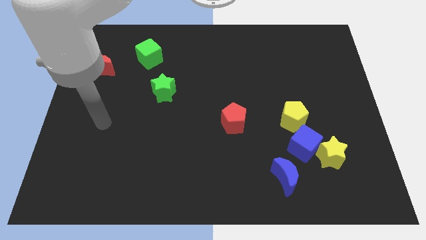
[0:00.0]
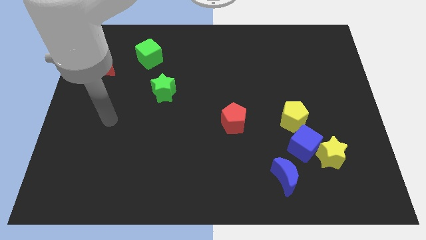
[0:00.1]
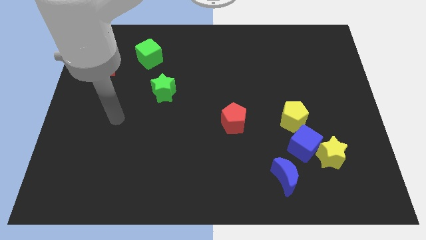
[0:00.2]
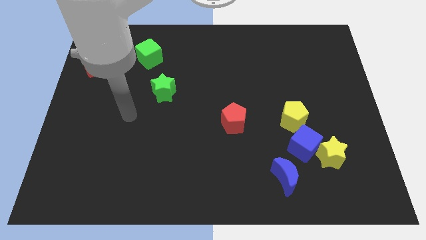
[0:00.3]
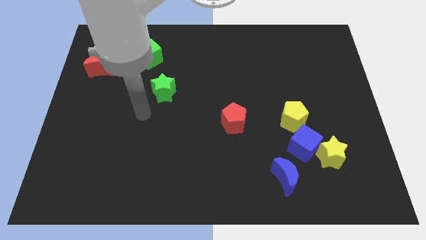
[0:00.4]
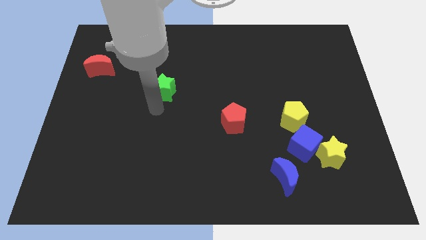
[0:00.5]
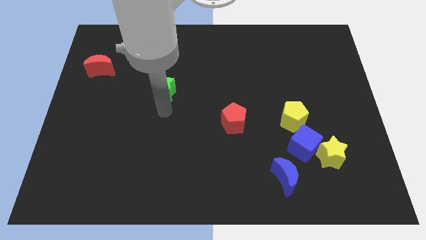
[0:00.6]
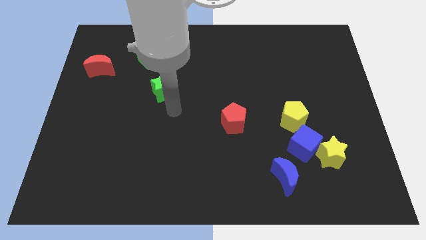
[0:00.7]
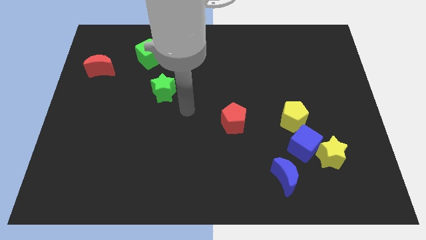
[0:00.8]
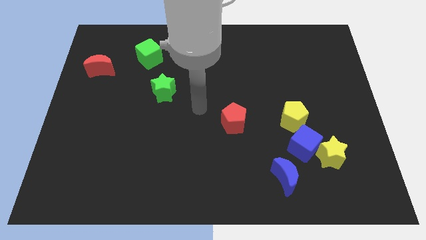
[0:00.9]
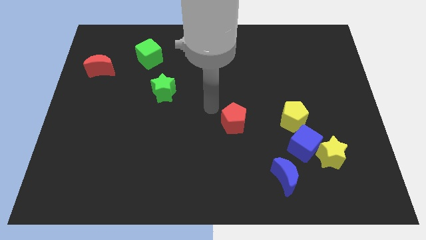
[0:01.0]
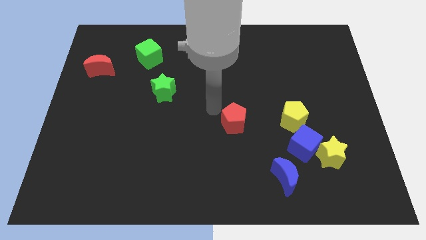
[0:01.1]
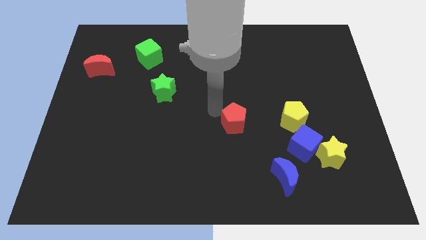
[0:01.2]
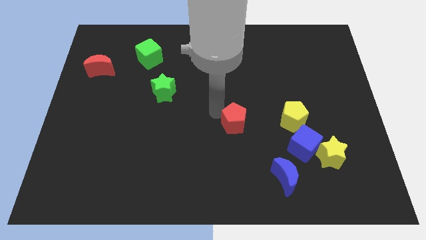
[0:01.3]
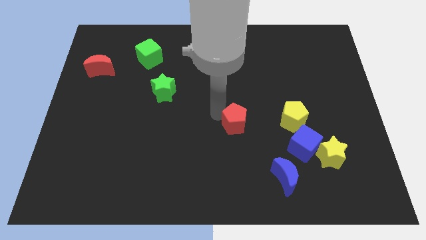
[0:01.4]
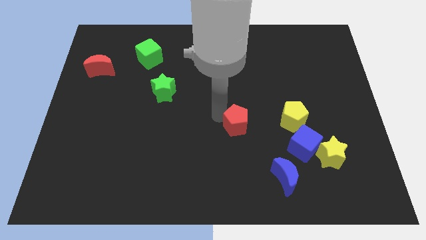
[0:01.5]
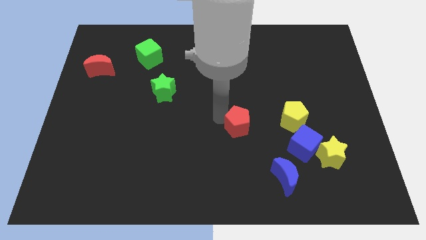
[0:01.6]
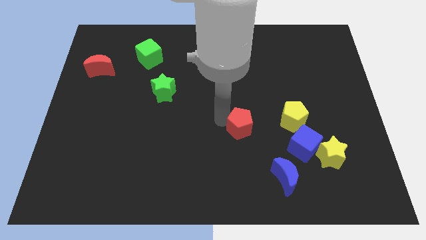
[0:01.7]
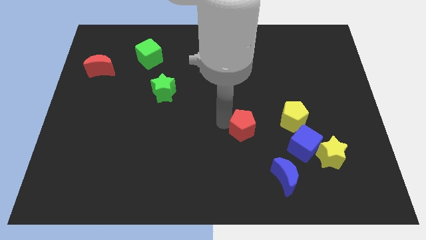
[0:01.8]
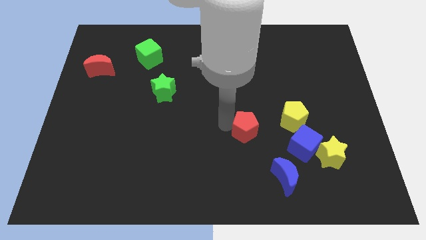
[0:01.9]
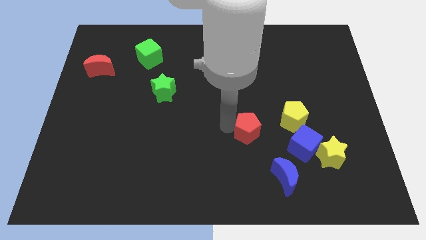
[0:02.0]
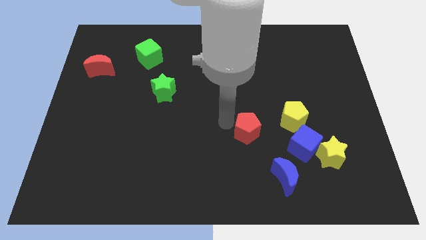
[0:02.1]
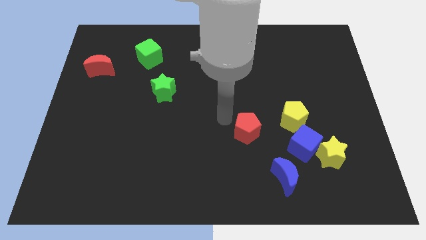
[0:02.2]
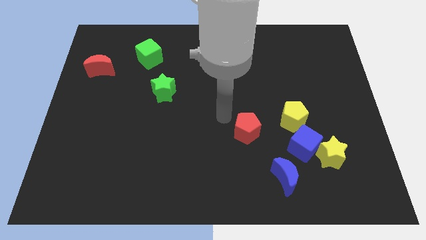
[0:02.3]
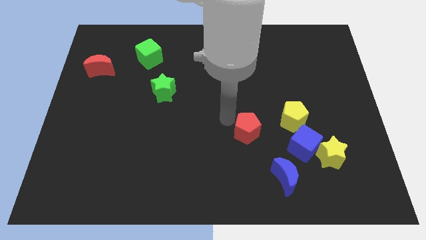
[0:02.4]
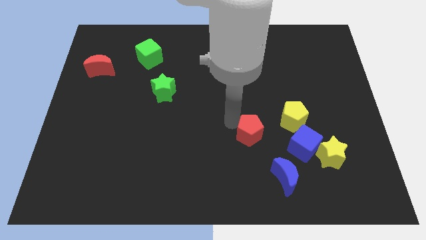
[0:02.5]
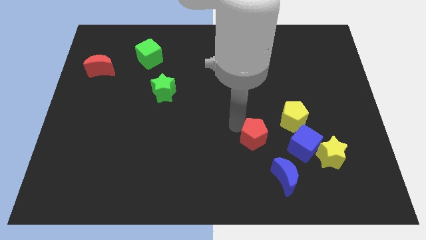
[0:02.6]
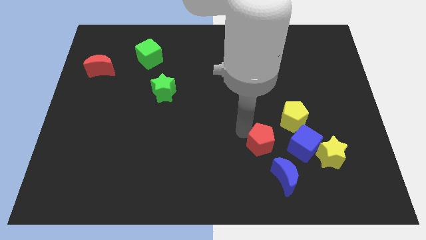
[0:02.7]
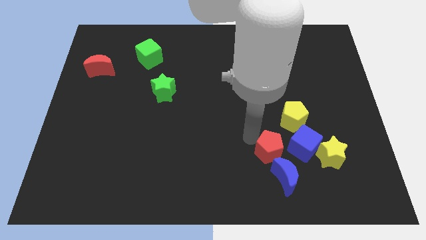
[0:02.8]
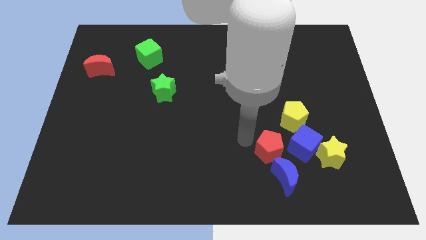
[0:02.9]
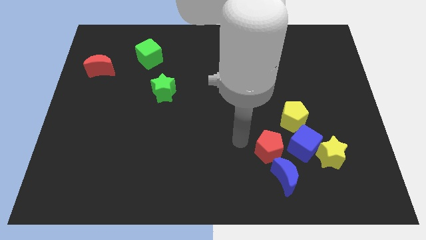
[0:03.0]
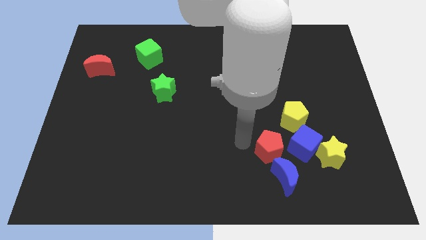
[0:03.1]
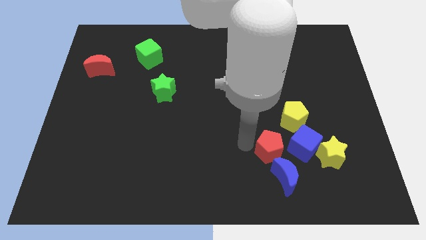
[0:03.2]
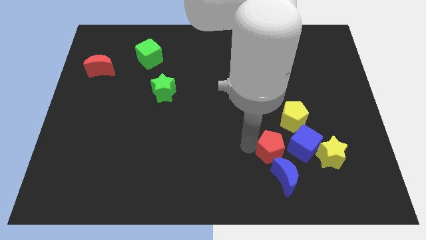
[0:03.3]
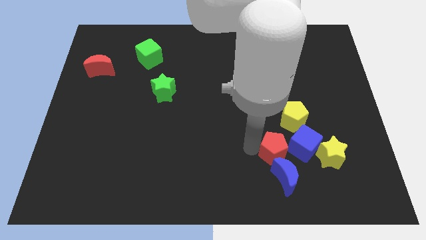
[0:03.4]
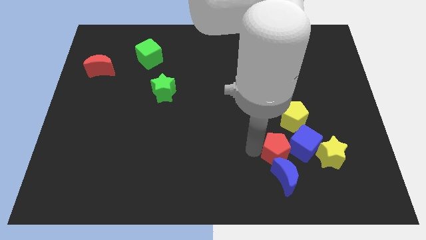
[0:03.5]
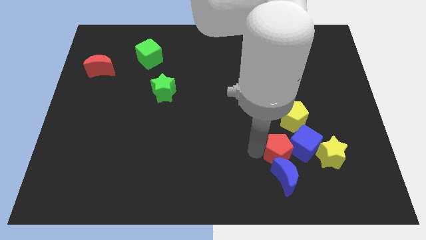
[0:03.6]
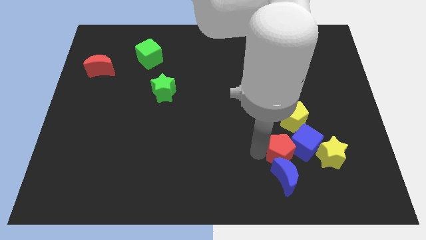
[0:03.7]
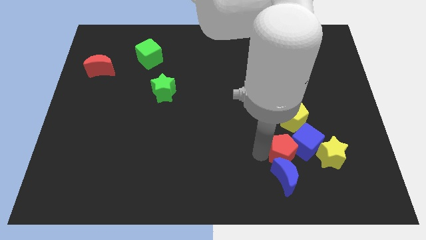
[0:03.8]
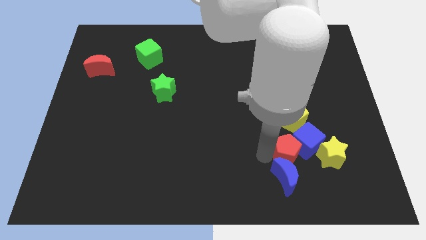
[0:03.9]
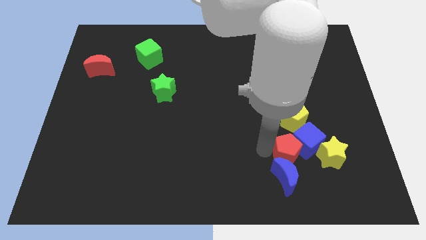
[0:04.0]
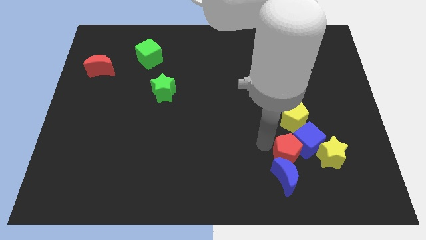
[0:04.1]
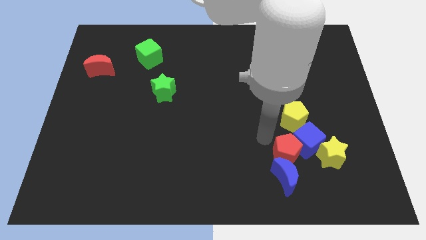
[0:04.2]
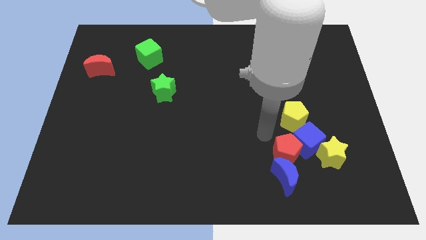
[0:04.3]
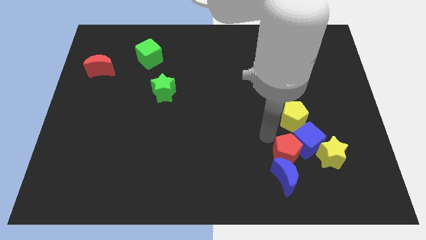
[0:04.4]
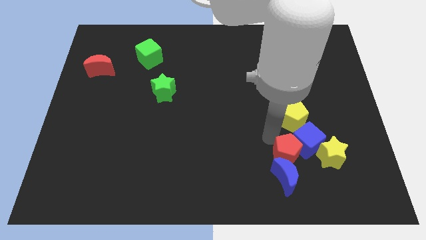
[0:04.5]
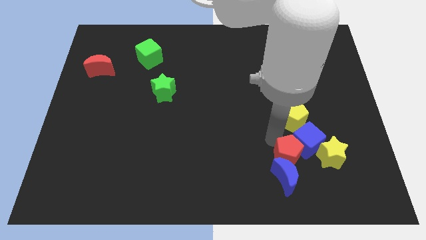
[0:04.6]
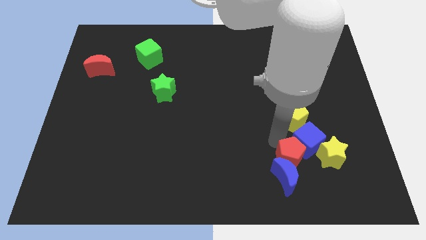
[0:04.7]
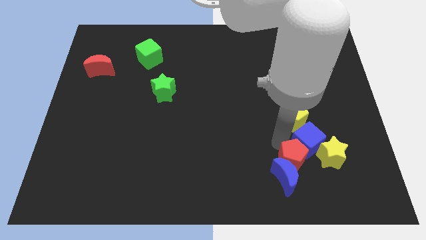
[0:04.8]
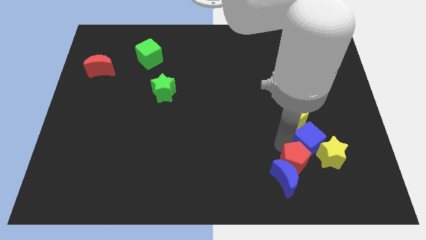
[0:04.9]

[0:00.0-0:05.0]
move the red pentagon to the bottom left of the yellow star

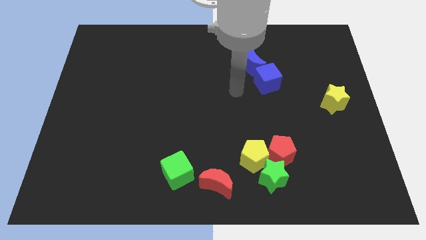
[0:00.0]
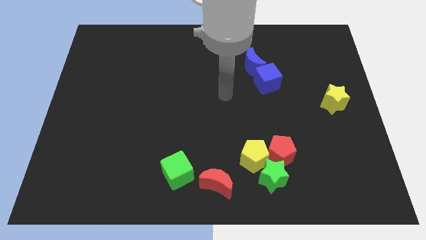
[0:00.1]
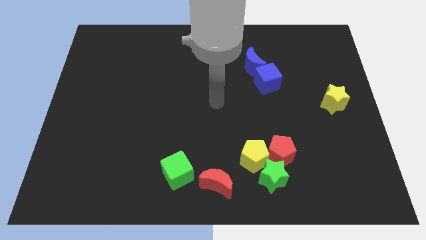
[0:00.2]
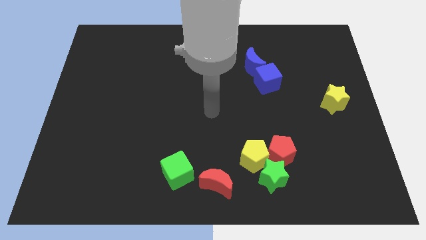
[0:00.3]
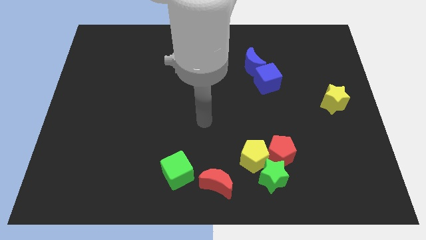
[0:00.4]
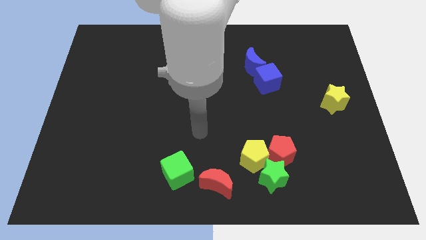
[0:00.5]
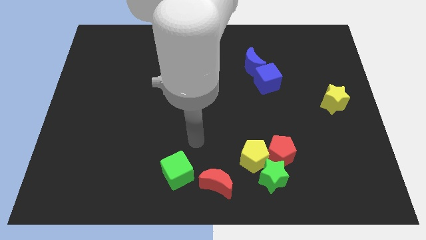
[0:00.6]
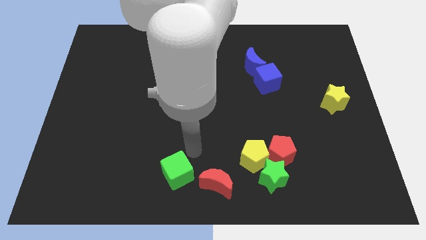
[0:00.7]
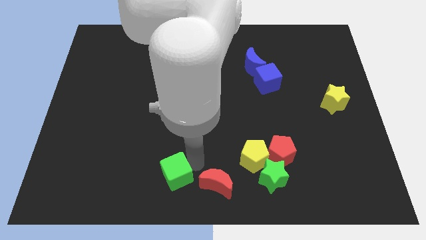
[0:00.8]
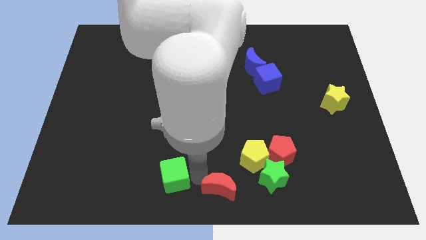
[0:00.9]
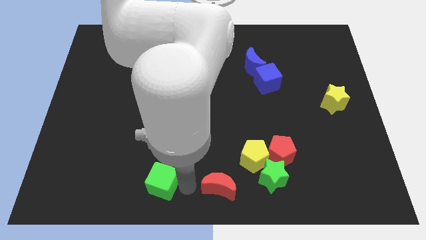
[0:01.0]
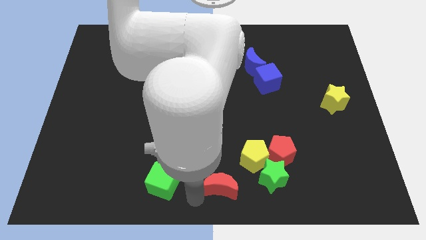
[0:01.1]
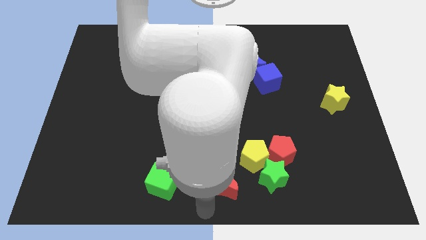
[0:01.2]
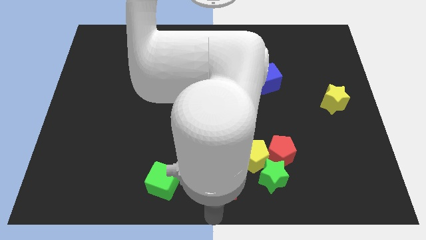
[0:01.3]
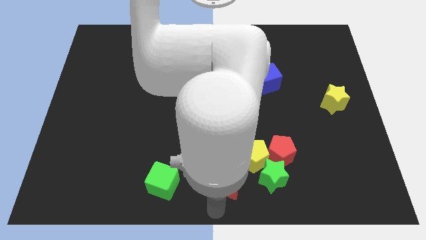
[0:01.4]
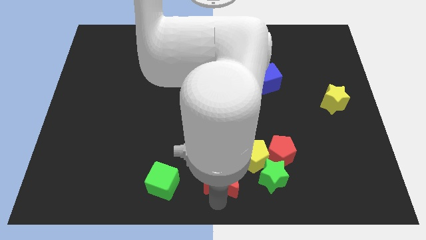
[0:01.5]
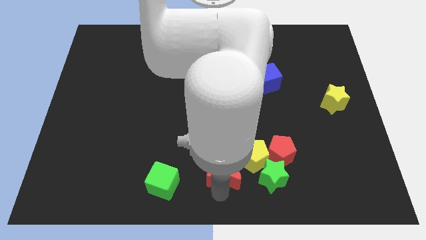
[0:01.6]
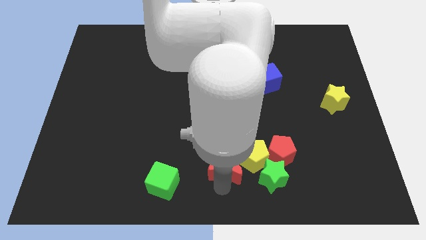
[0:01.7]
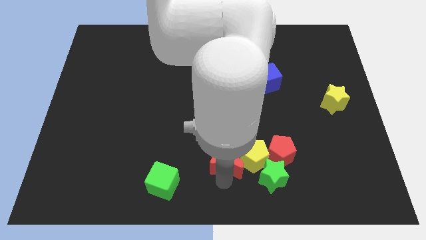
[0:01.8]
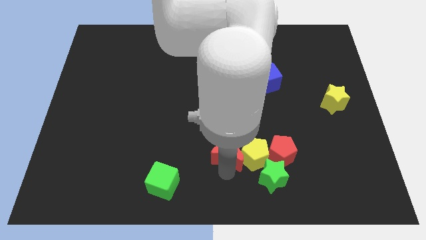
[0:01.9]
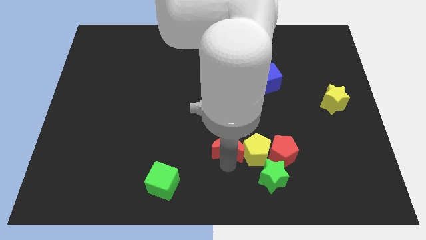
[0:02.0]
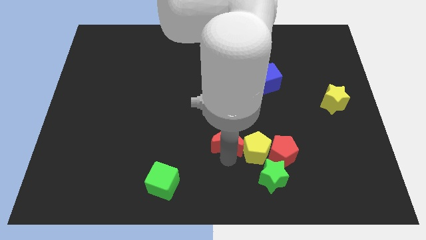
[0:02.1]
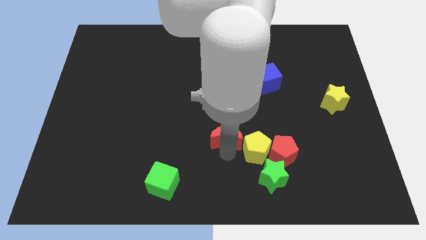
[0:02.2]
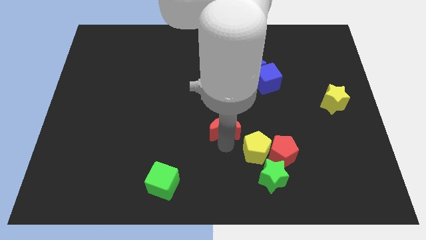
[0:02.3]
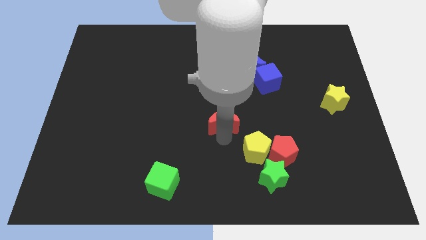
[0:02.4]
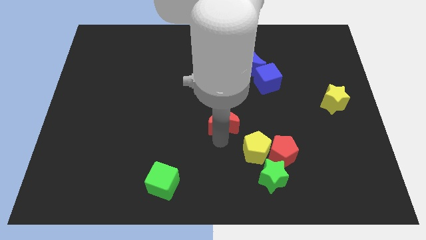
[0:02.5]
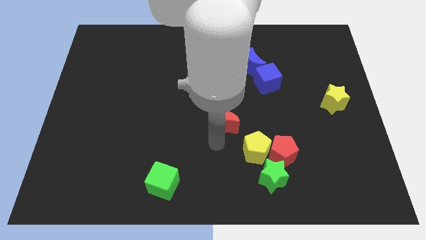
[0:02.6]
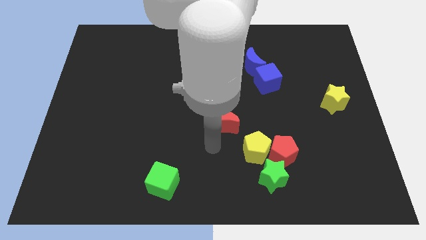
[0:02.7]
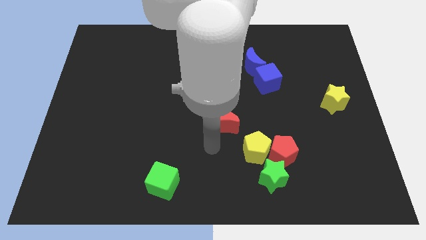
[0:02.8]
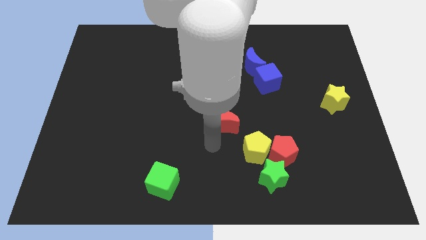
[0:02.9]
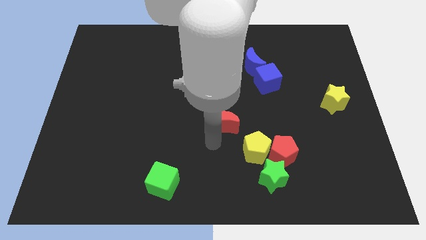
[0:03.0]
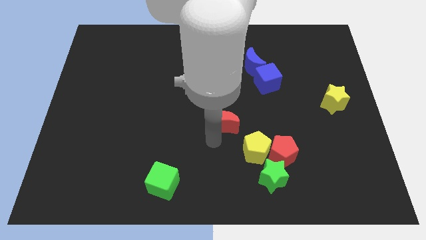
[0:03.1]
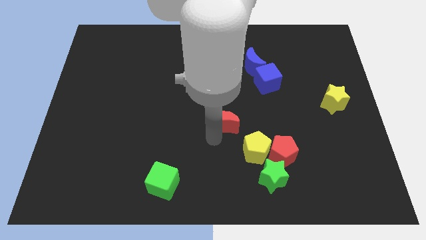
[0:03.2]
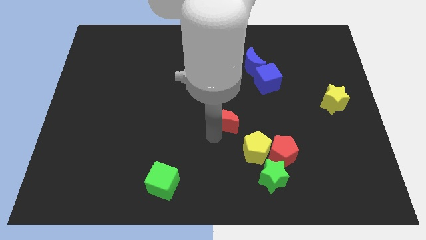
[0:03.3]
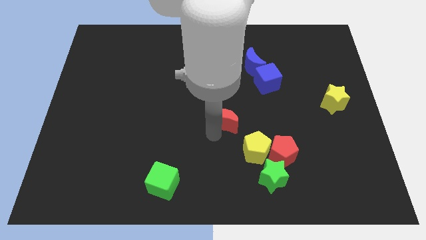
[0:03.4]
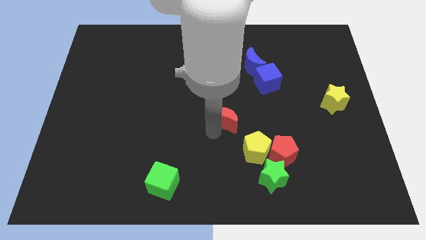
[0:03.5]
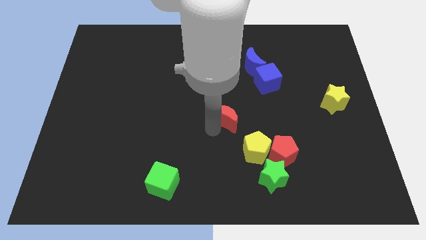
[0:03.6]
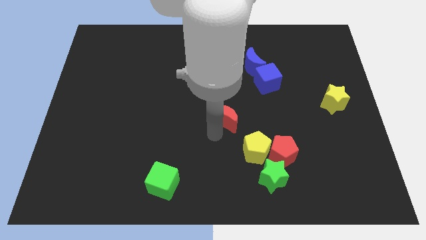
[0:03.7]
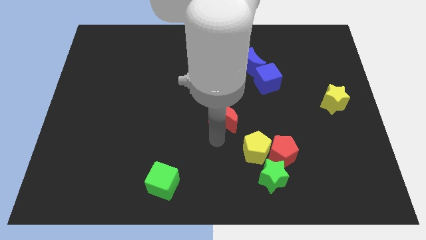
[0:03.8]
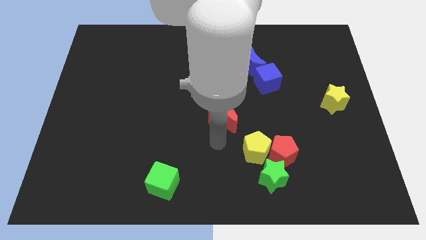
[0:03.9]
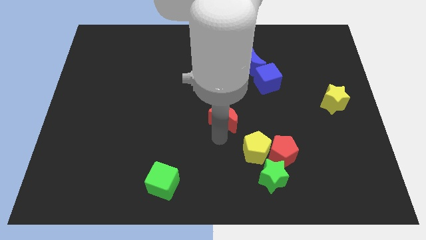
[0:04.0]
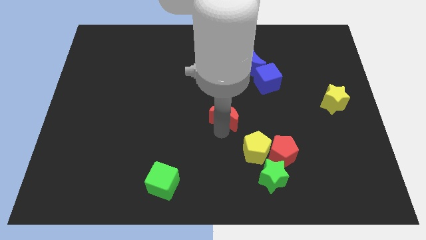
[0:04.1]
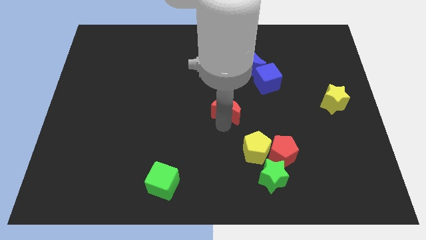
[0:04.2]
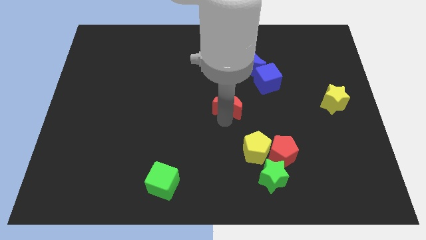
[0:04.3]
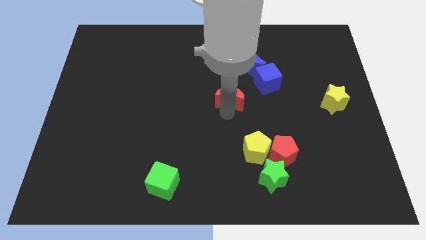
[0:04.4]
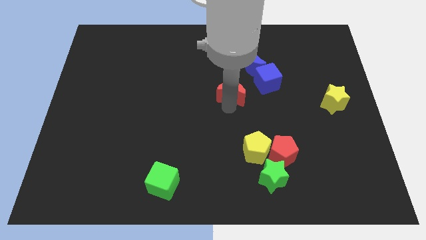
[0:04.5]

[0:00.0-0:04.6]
slide the red moon to the bottom left side of the blue moon
